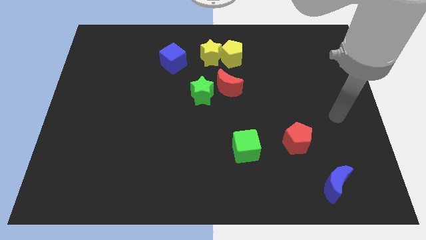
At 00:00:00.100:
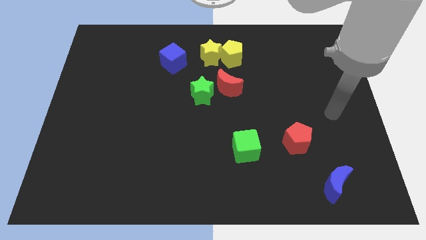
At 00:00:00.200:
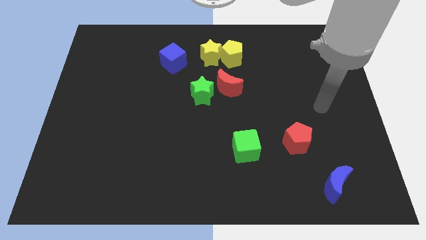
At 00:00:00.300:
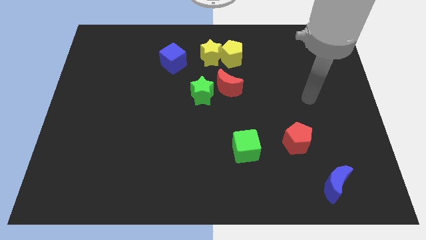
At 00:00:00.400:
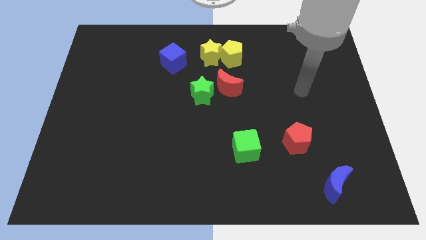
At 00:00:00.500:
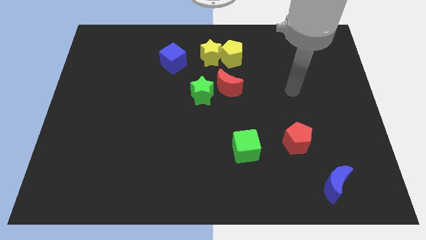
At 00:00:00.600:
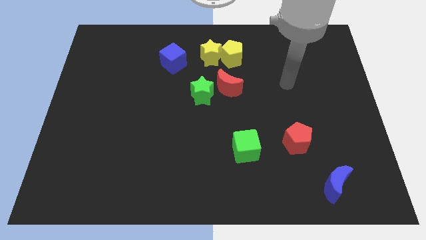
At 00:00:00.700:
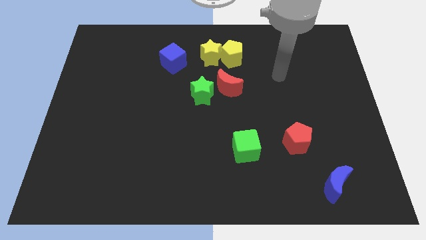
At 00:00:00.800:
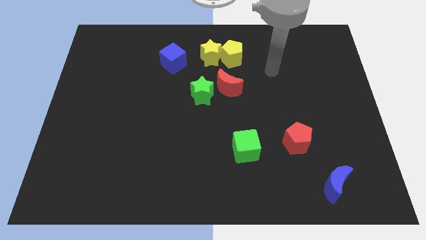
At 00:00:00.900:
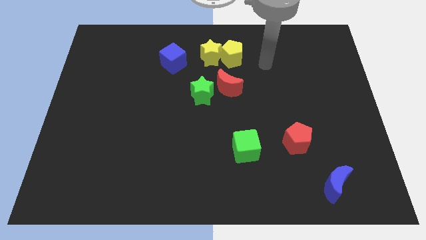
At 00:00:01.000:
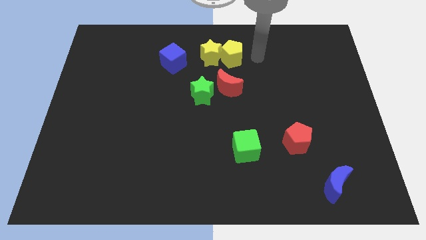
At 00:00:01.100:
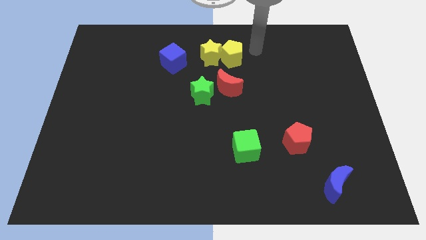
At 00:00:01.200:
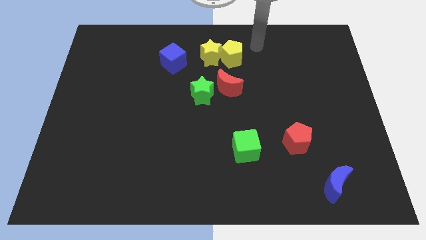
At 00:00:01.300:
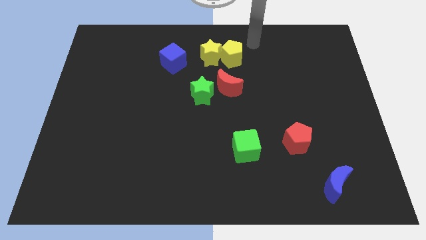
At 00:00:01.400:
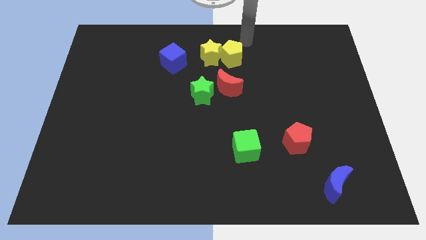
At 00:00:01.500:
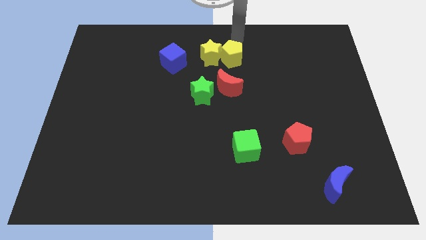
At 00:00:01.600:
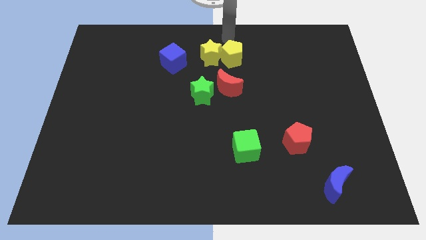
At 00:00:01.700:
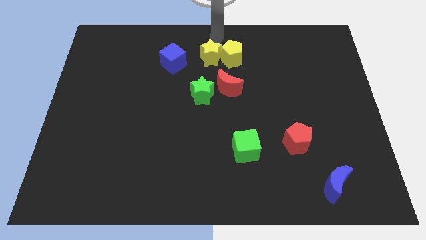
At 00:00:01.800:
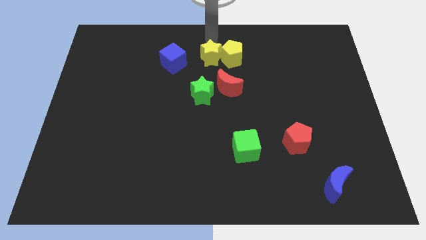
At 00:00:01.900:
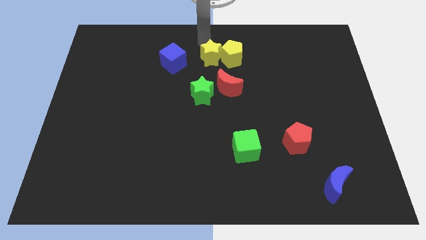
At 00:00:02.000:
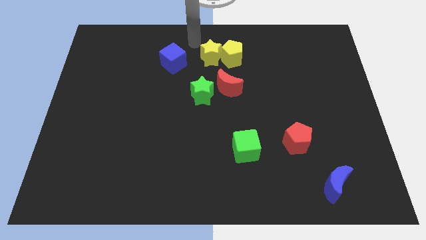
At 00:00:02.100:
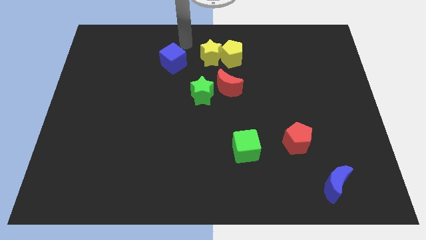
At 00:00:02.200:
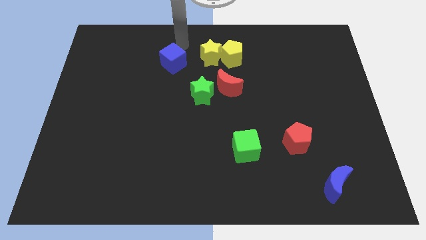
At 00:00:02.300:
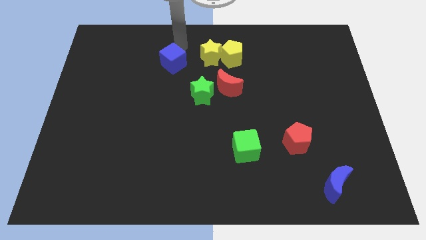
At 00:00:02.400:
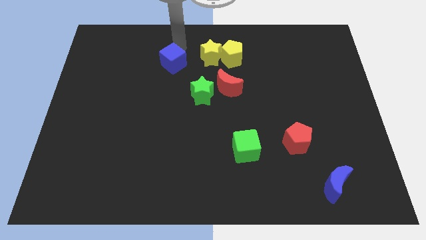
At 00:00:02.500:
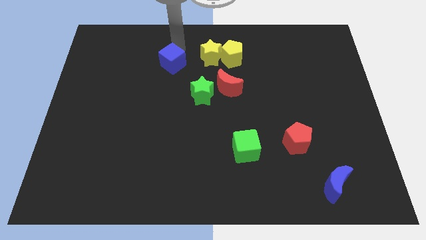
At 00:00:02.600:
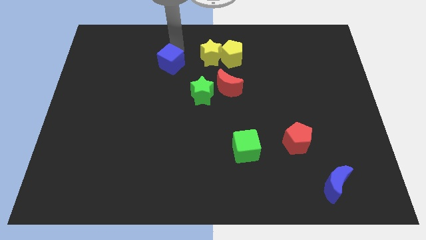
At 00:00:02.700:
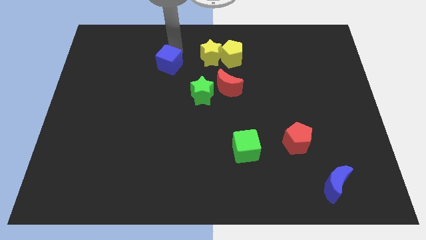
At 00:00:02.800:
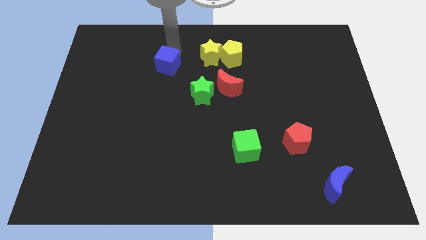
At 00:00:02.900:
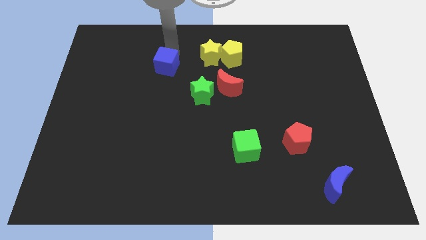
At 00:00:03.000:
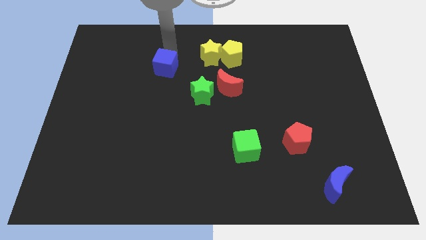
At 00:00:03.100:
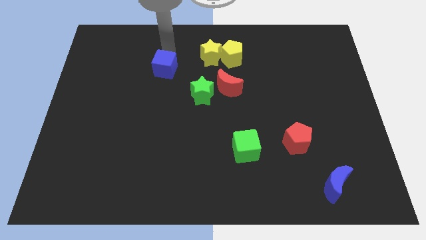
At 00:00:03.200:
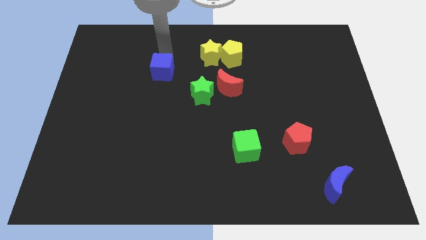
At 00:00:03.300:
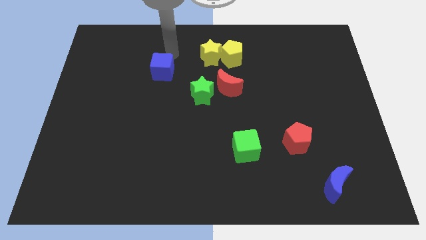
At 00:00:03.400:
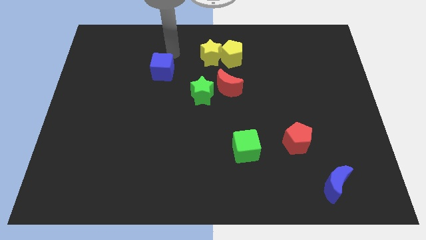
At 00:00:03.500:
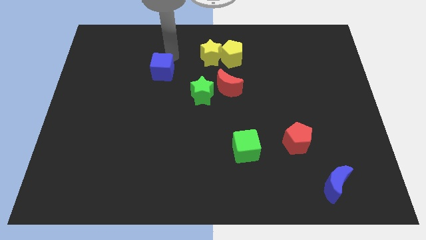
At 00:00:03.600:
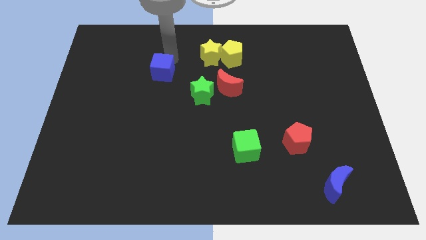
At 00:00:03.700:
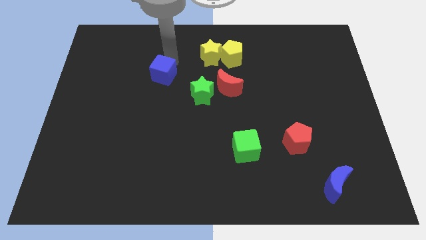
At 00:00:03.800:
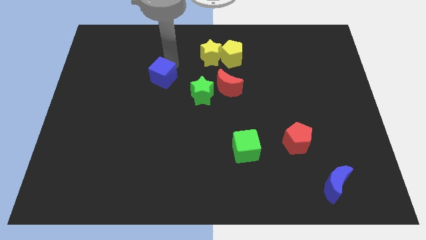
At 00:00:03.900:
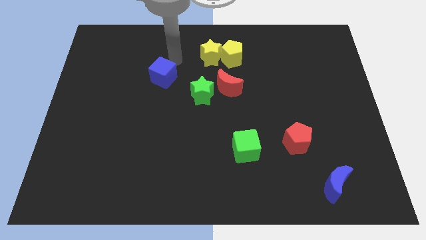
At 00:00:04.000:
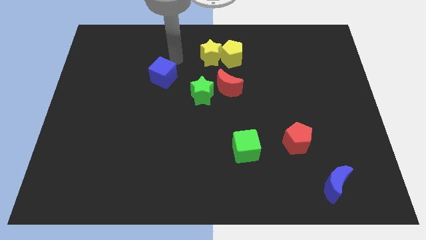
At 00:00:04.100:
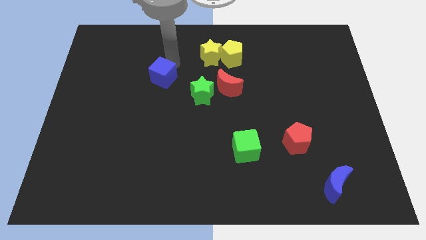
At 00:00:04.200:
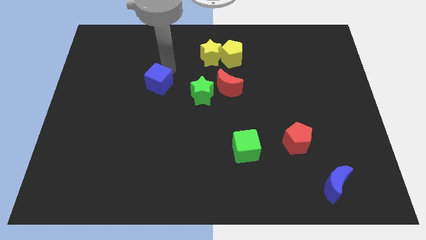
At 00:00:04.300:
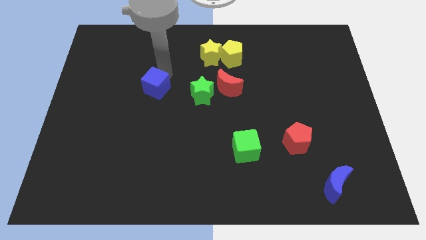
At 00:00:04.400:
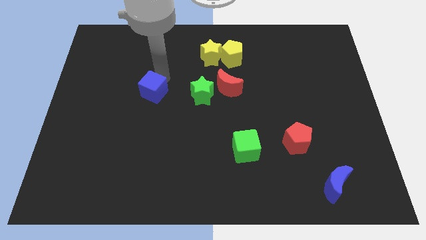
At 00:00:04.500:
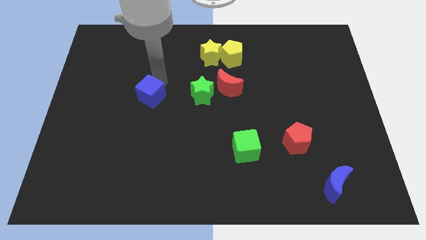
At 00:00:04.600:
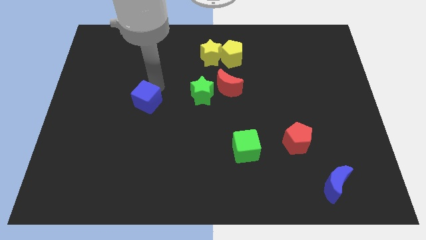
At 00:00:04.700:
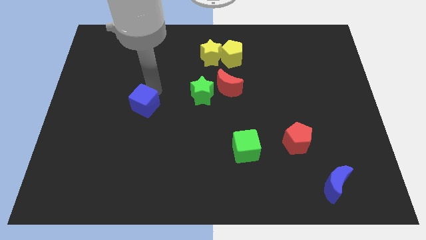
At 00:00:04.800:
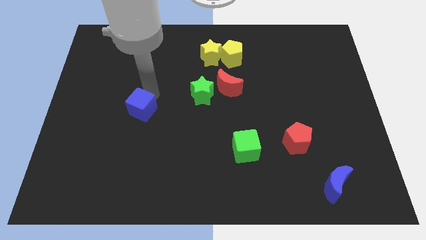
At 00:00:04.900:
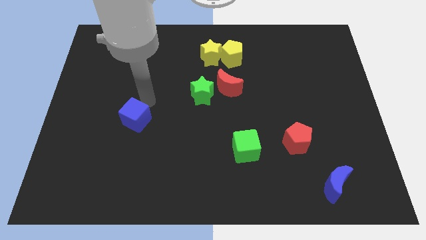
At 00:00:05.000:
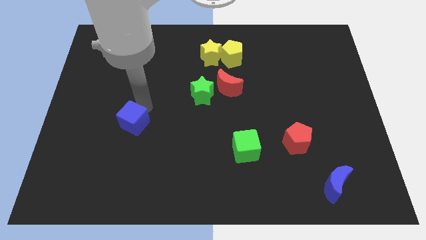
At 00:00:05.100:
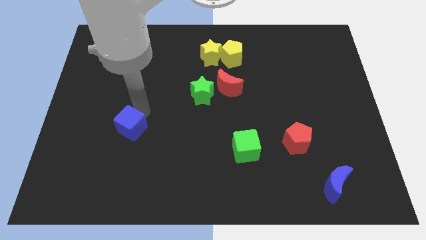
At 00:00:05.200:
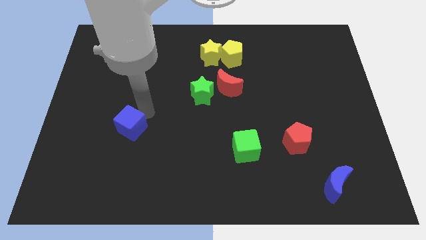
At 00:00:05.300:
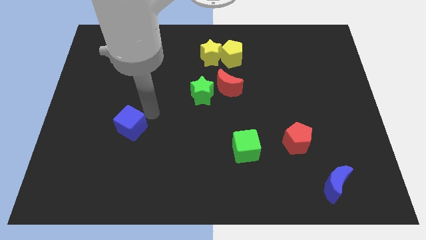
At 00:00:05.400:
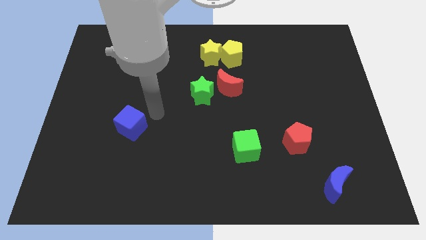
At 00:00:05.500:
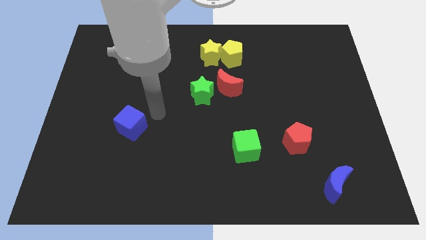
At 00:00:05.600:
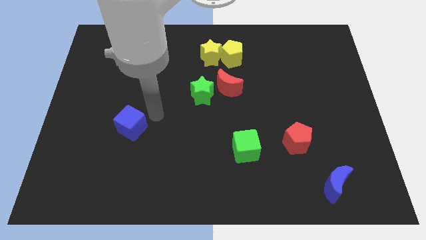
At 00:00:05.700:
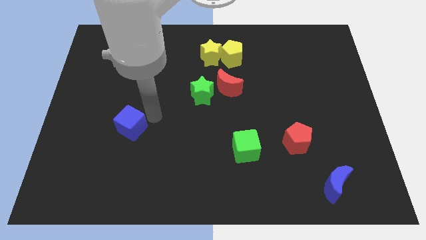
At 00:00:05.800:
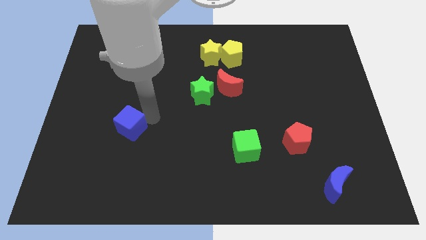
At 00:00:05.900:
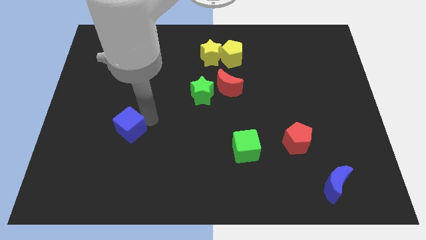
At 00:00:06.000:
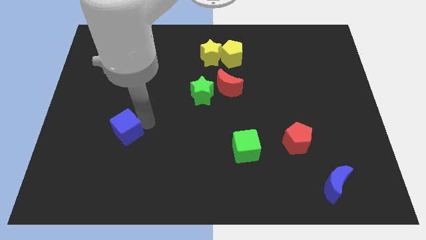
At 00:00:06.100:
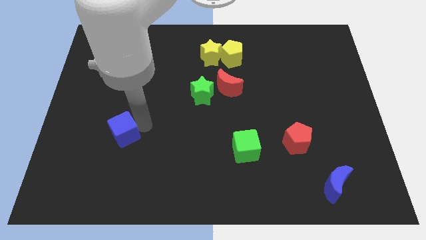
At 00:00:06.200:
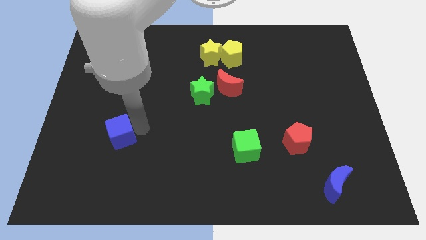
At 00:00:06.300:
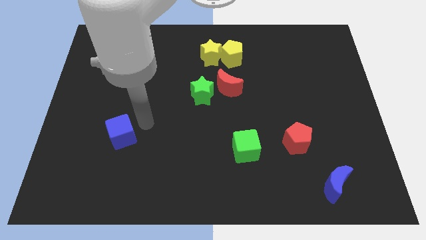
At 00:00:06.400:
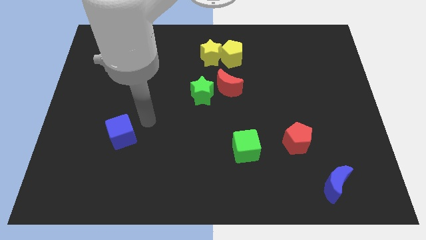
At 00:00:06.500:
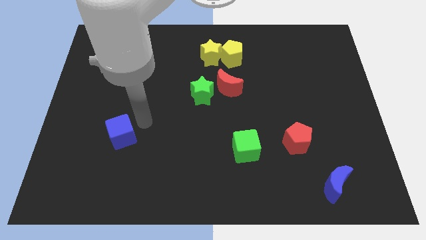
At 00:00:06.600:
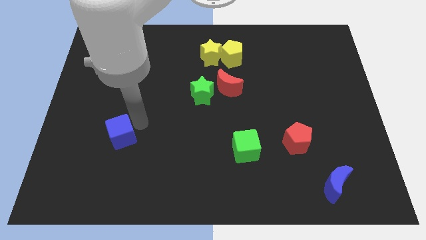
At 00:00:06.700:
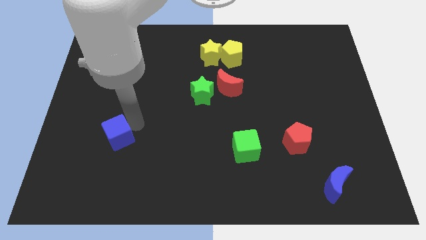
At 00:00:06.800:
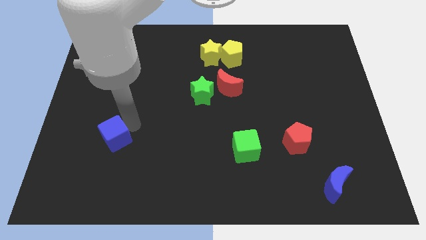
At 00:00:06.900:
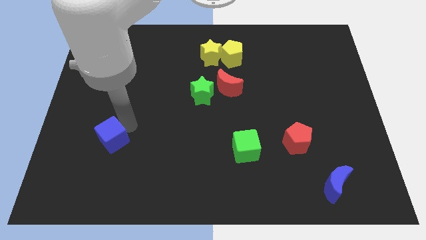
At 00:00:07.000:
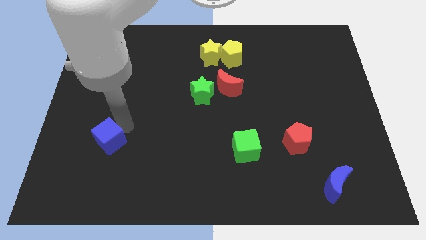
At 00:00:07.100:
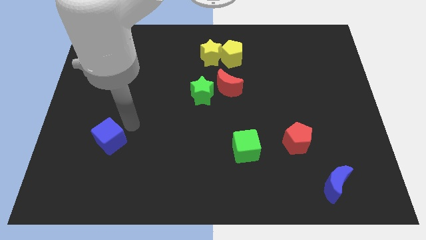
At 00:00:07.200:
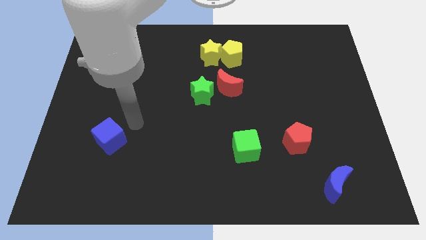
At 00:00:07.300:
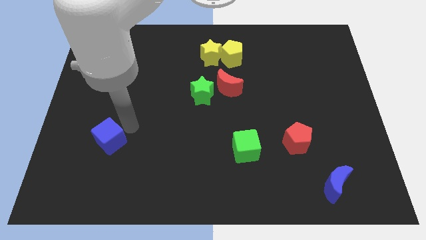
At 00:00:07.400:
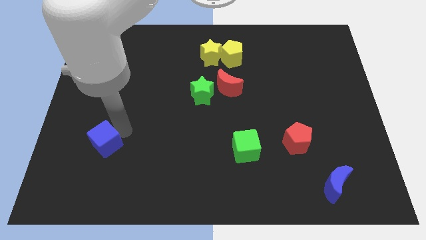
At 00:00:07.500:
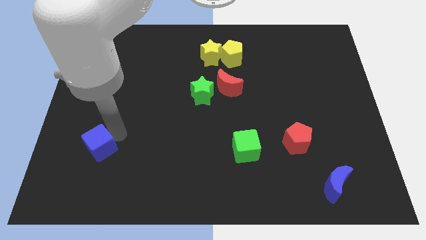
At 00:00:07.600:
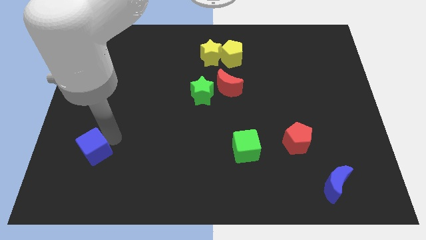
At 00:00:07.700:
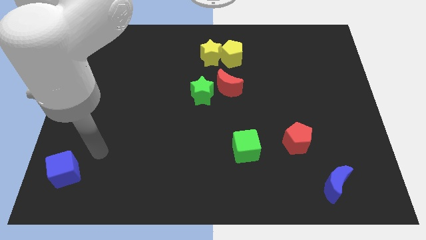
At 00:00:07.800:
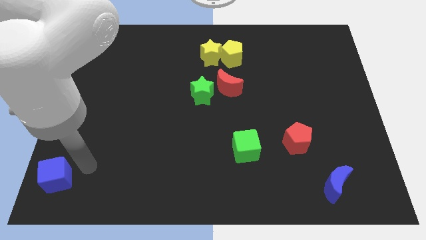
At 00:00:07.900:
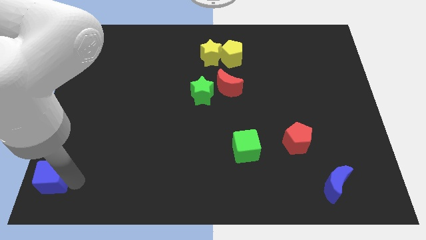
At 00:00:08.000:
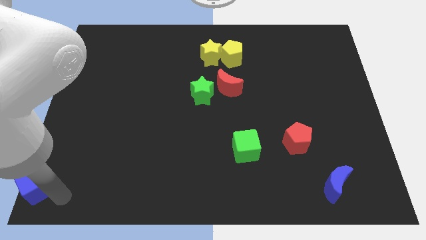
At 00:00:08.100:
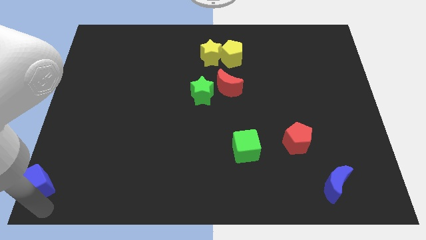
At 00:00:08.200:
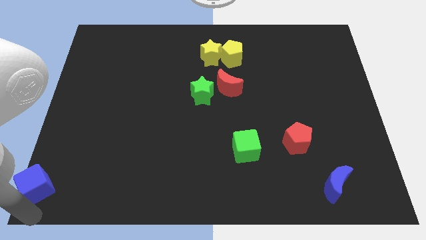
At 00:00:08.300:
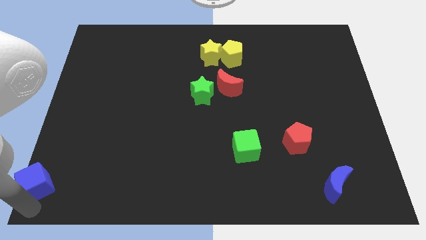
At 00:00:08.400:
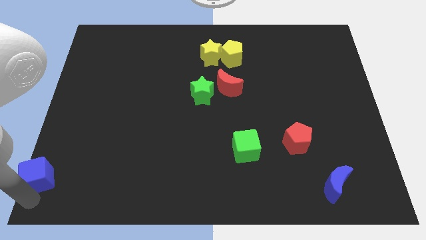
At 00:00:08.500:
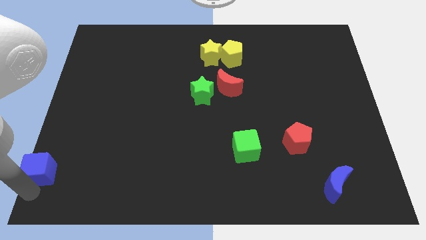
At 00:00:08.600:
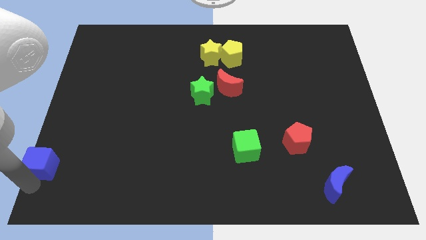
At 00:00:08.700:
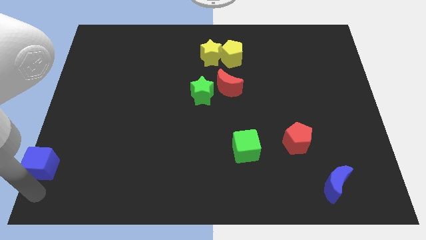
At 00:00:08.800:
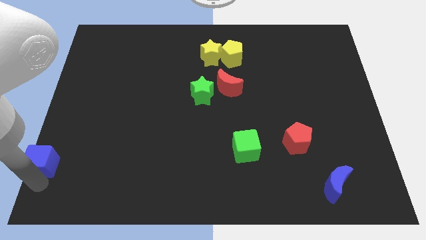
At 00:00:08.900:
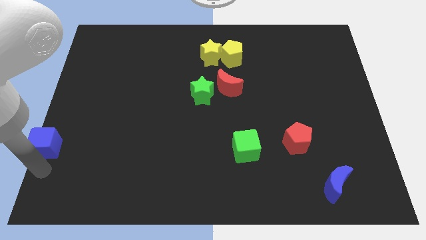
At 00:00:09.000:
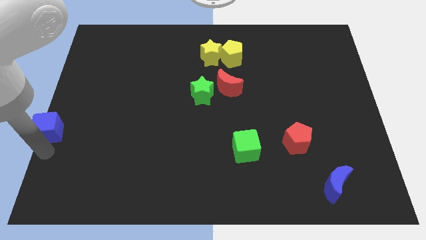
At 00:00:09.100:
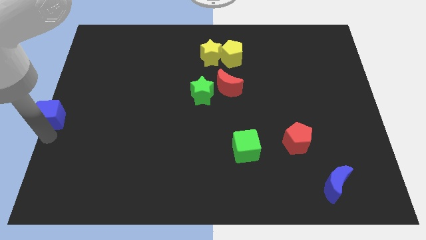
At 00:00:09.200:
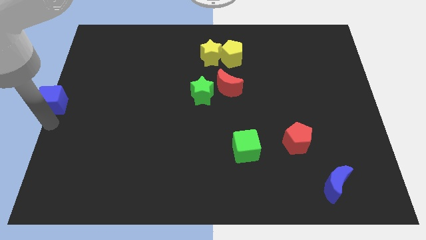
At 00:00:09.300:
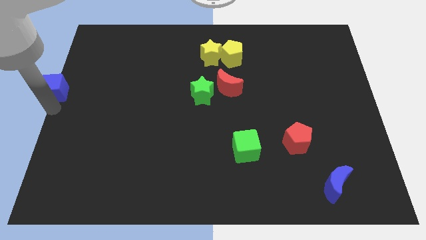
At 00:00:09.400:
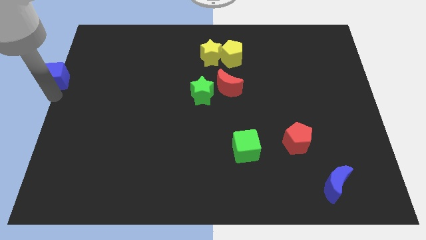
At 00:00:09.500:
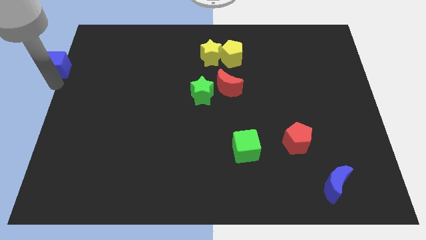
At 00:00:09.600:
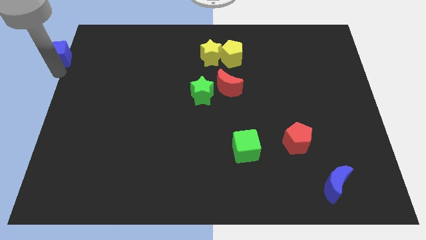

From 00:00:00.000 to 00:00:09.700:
push the blue cube to the top left corner
